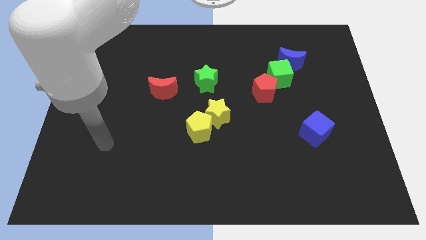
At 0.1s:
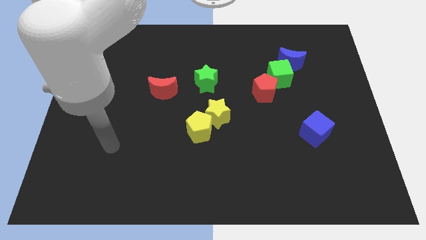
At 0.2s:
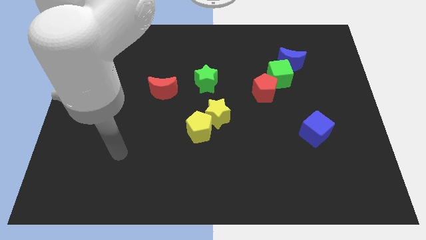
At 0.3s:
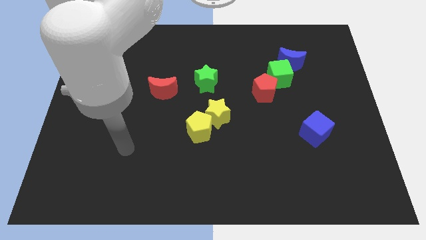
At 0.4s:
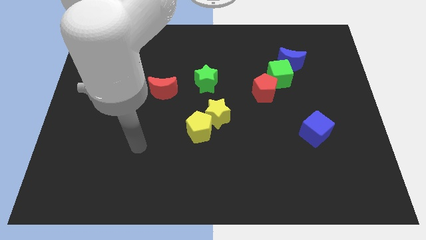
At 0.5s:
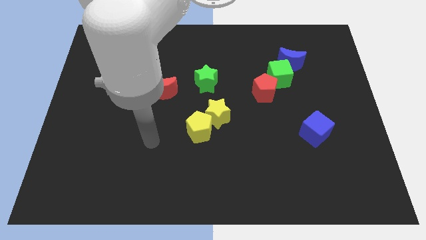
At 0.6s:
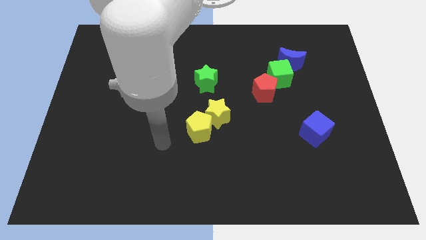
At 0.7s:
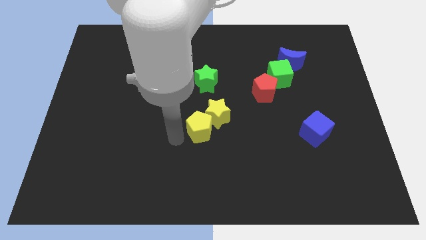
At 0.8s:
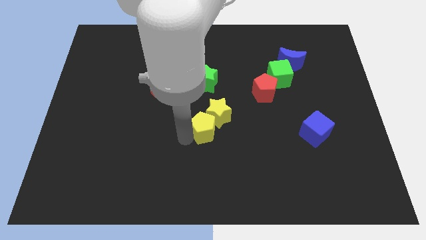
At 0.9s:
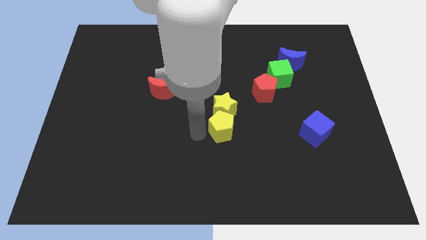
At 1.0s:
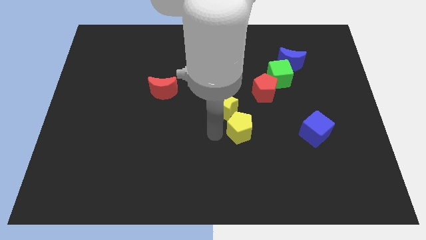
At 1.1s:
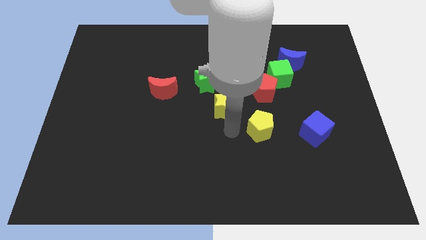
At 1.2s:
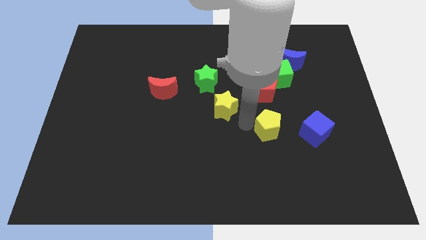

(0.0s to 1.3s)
move the yellow star away from the yellow pentagon

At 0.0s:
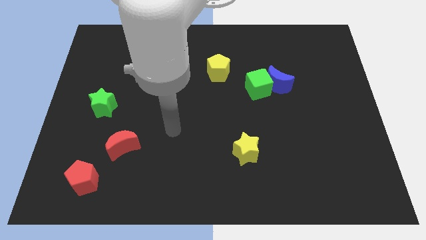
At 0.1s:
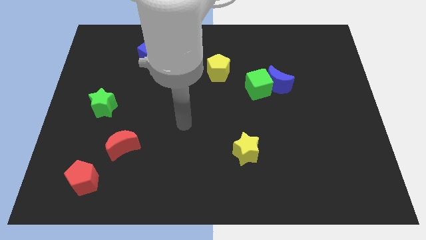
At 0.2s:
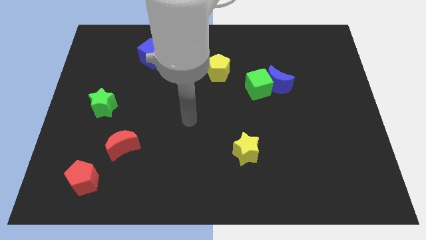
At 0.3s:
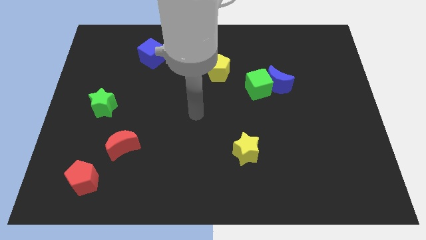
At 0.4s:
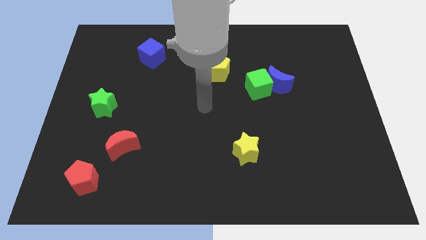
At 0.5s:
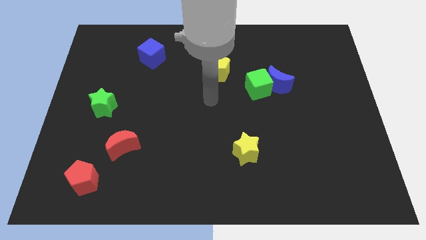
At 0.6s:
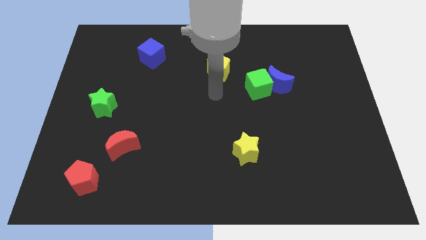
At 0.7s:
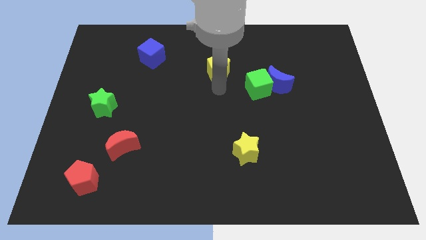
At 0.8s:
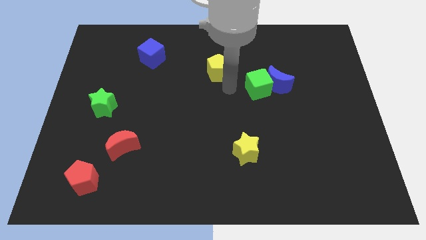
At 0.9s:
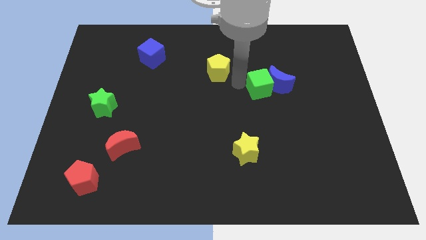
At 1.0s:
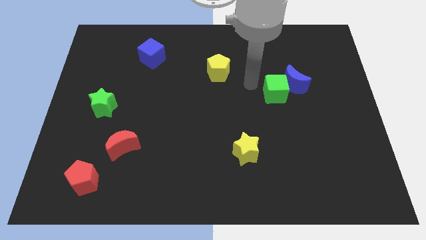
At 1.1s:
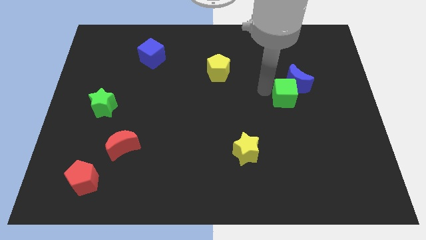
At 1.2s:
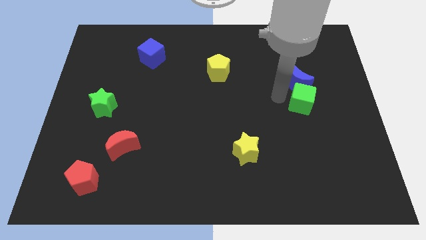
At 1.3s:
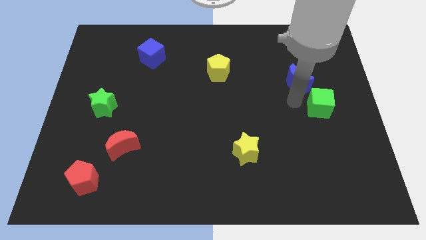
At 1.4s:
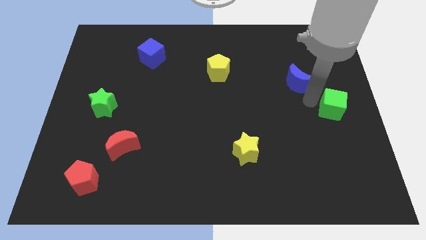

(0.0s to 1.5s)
pull the blue moon apart from the green cube

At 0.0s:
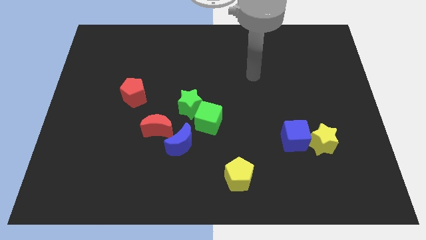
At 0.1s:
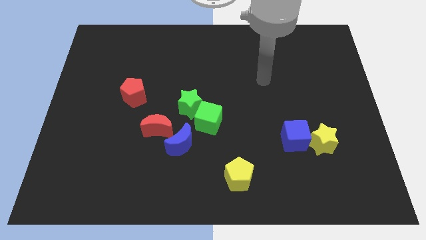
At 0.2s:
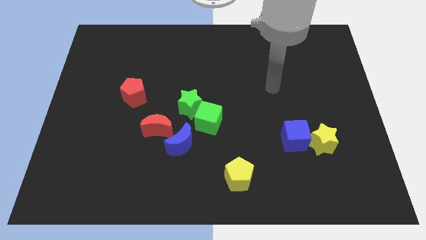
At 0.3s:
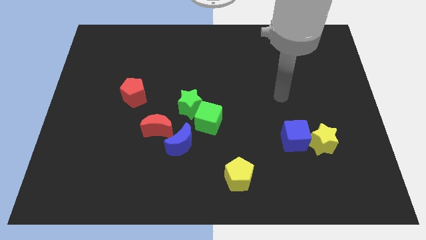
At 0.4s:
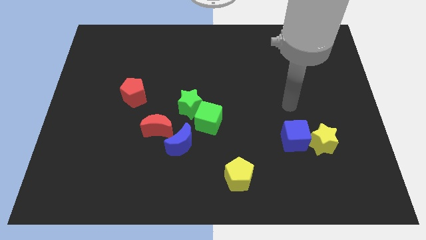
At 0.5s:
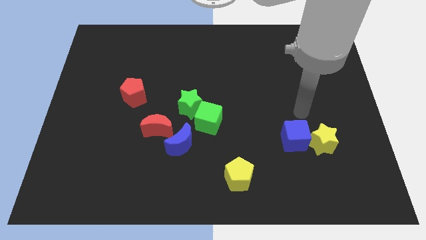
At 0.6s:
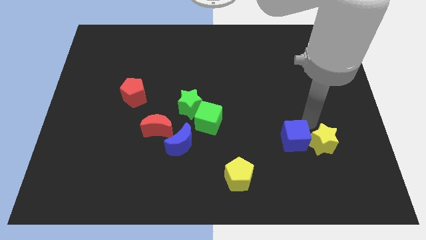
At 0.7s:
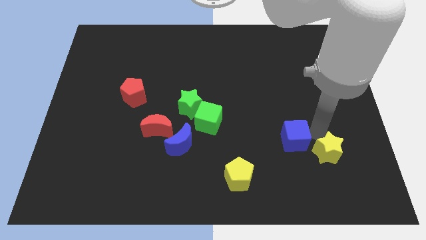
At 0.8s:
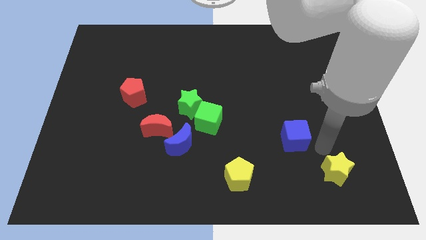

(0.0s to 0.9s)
pull the blue cube apart from the yellow star

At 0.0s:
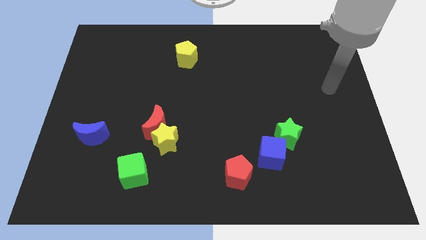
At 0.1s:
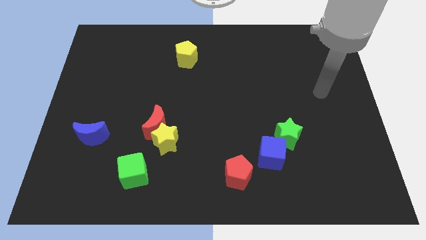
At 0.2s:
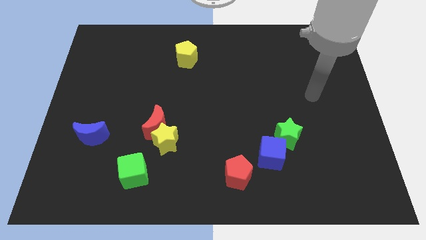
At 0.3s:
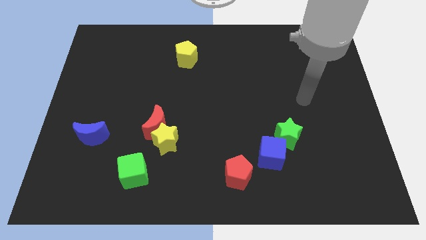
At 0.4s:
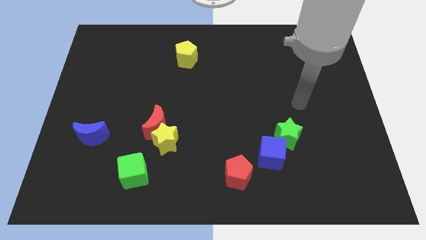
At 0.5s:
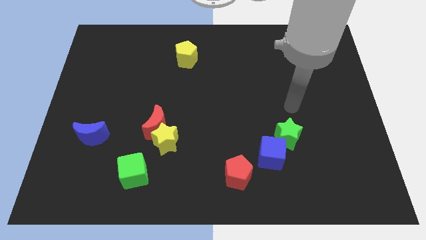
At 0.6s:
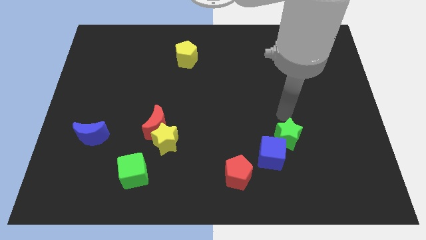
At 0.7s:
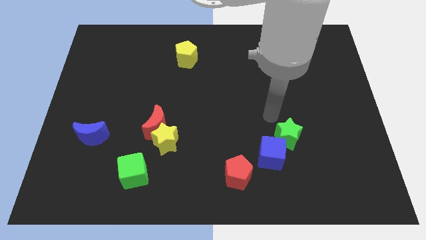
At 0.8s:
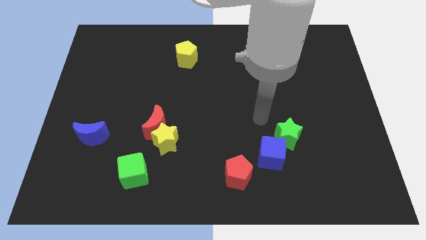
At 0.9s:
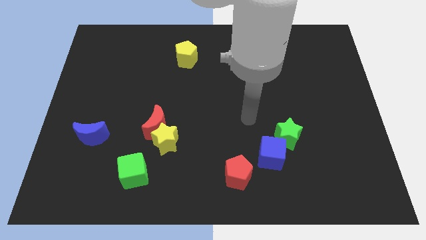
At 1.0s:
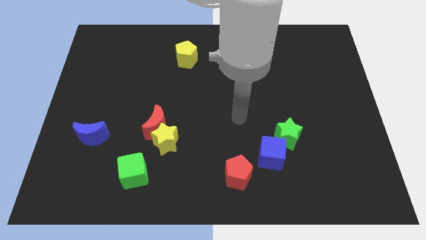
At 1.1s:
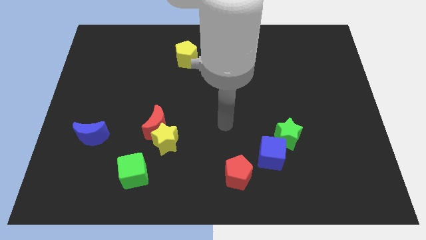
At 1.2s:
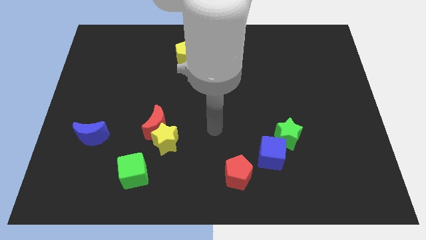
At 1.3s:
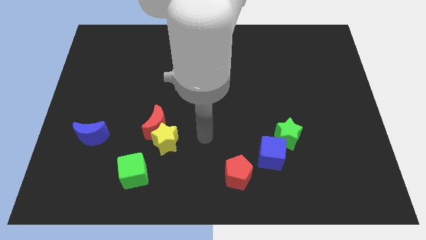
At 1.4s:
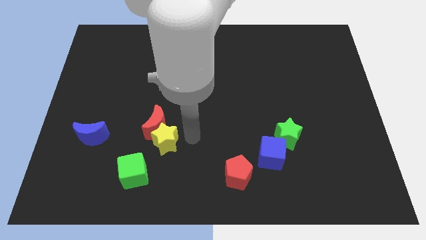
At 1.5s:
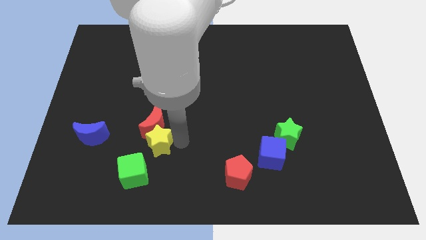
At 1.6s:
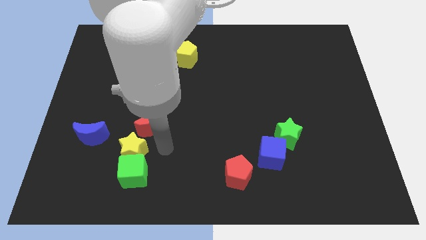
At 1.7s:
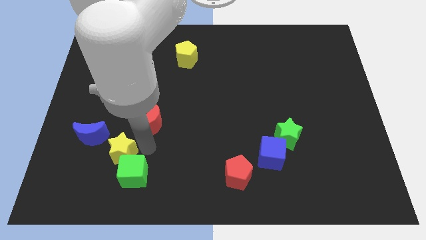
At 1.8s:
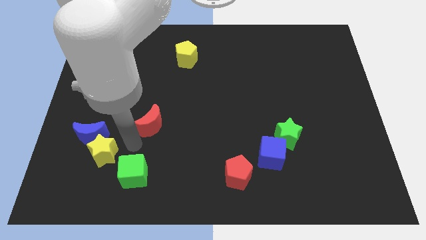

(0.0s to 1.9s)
separate the red moon from the yellow star

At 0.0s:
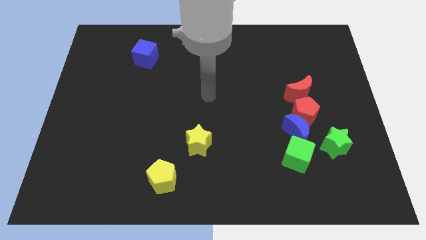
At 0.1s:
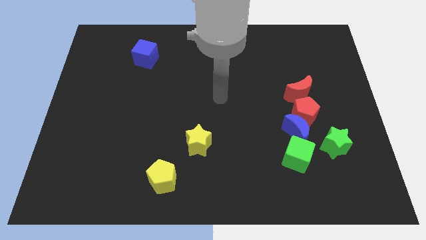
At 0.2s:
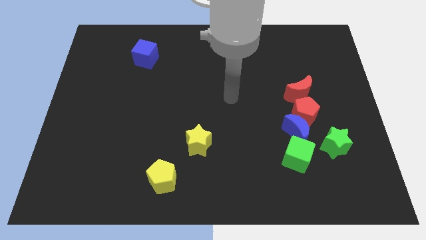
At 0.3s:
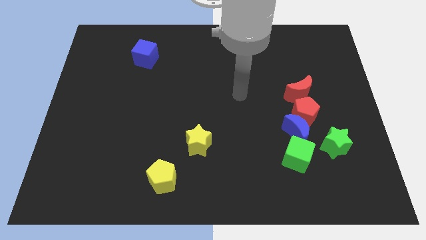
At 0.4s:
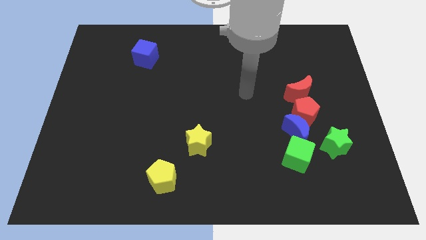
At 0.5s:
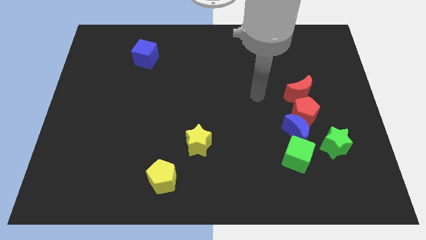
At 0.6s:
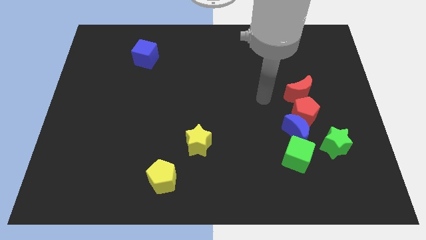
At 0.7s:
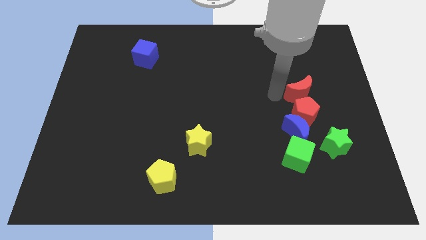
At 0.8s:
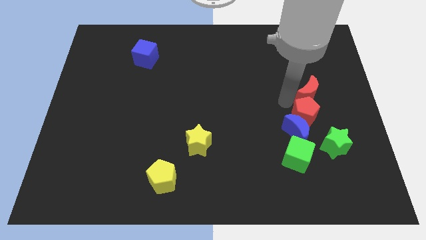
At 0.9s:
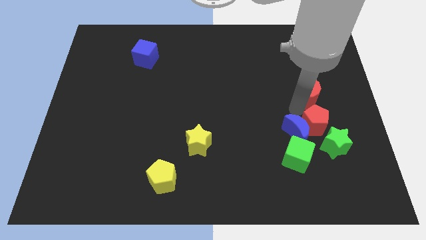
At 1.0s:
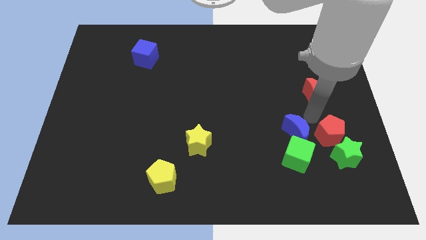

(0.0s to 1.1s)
separate the red moon from the red pentagon

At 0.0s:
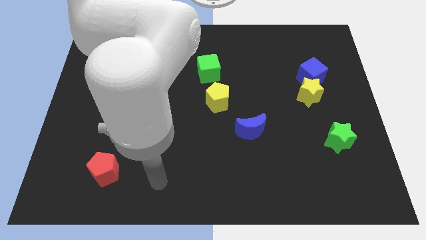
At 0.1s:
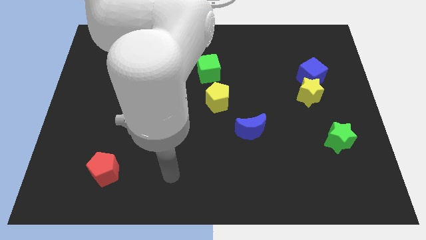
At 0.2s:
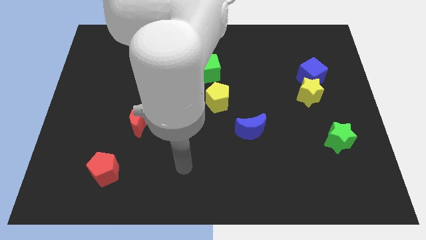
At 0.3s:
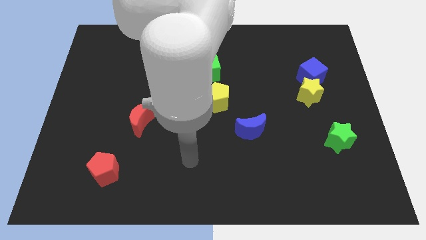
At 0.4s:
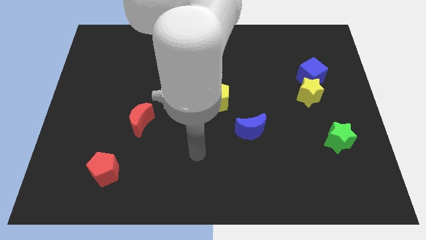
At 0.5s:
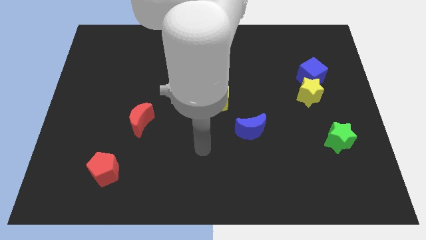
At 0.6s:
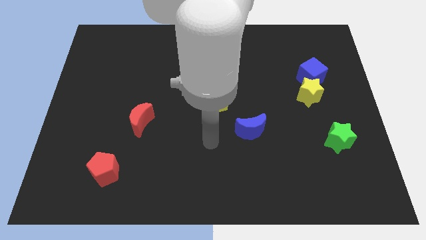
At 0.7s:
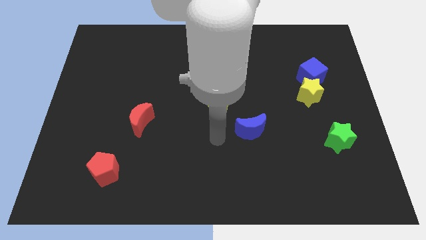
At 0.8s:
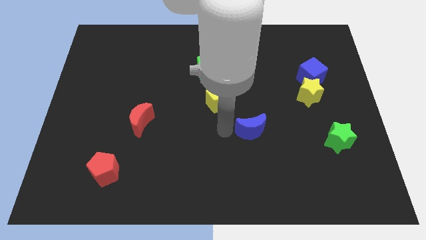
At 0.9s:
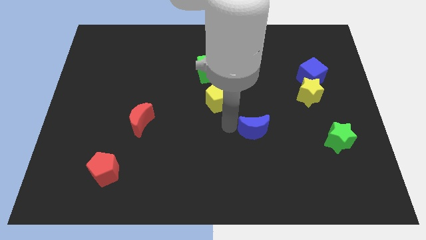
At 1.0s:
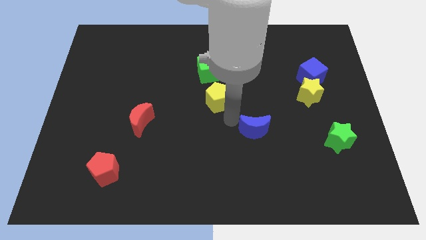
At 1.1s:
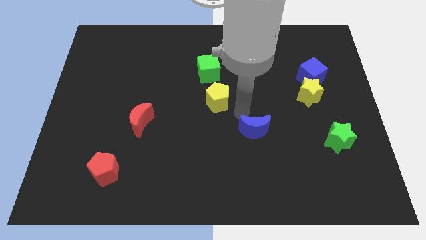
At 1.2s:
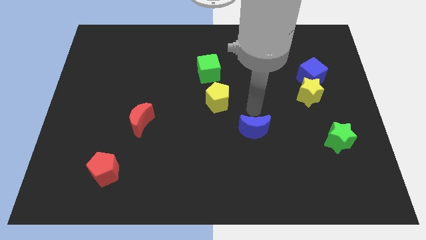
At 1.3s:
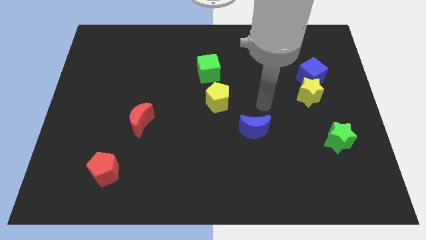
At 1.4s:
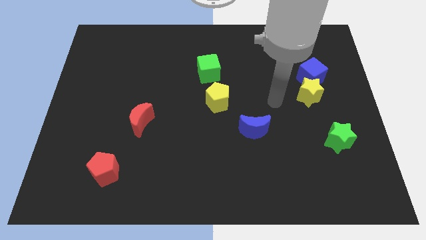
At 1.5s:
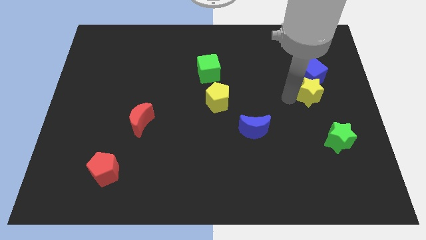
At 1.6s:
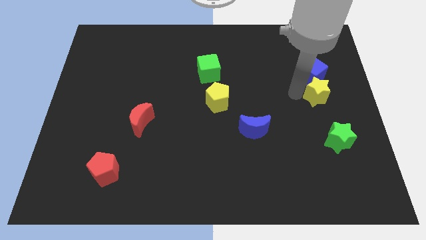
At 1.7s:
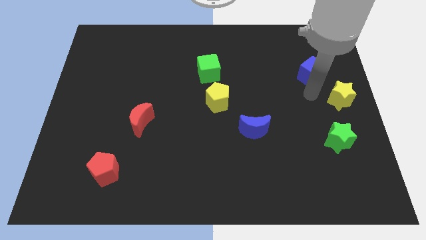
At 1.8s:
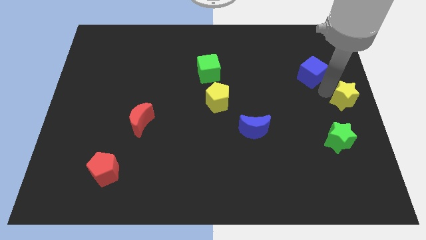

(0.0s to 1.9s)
separate the blue cube from the yellow star

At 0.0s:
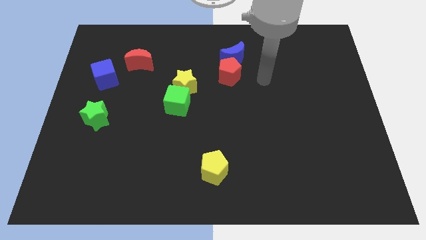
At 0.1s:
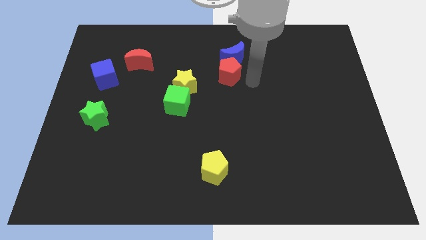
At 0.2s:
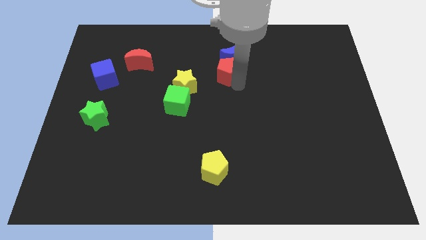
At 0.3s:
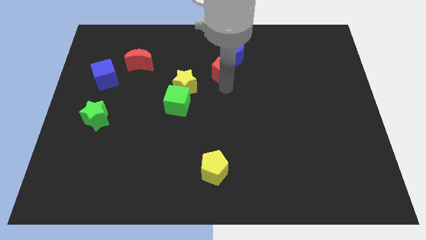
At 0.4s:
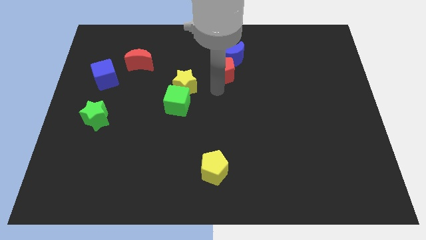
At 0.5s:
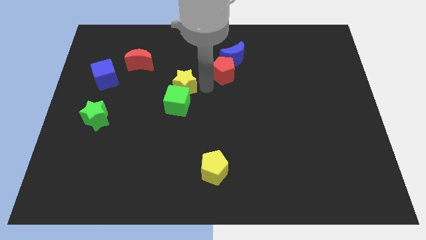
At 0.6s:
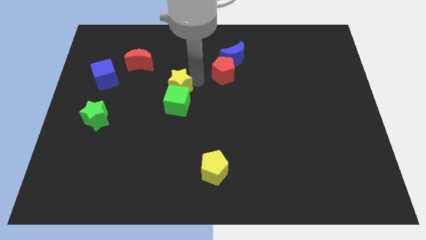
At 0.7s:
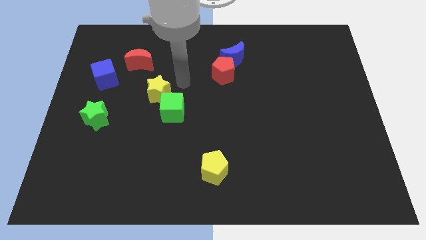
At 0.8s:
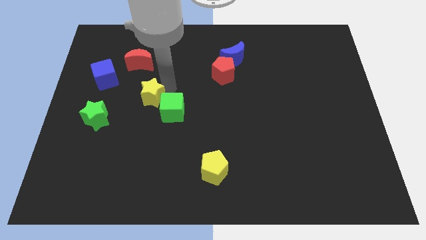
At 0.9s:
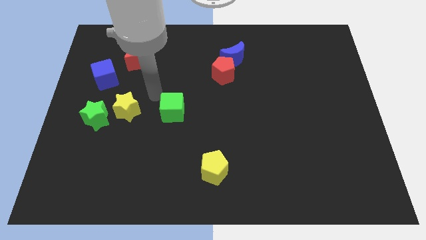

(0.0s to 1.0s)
separate the green cube from the yellow star
